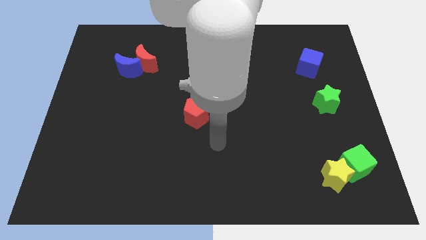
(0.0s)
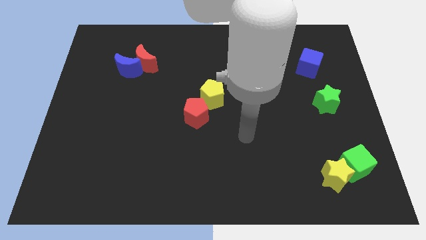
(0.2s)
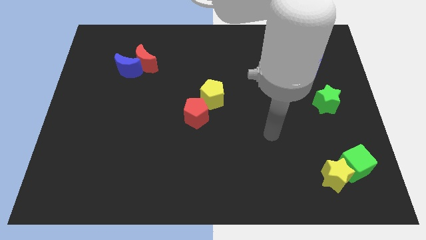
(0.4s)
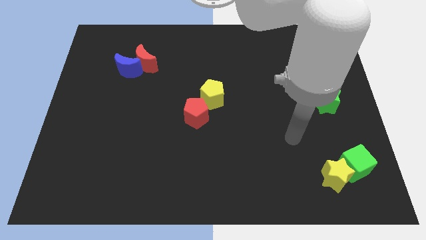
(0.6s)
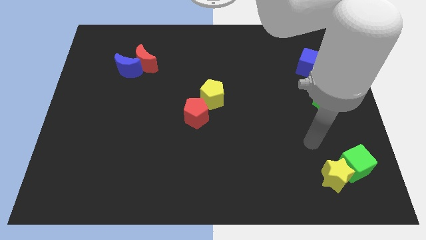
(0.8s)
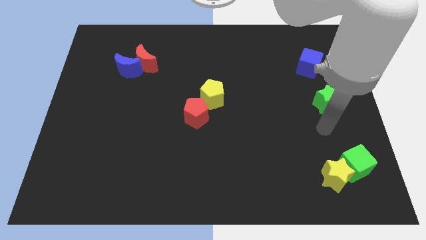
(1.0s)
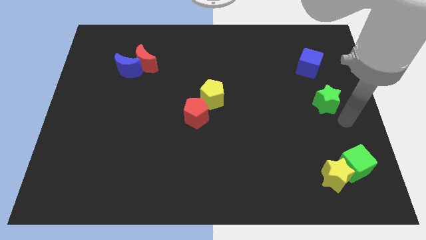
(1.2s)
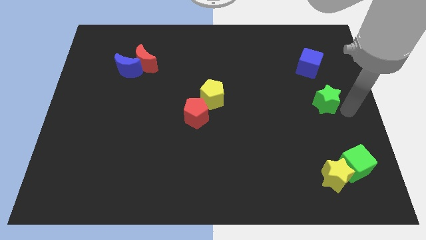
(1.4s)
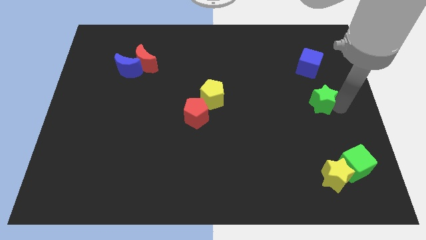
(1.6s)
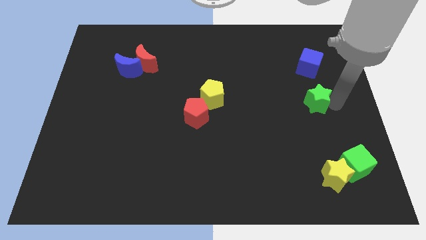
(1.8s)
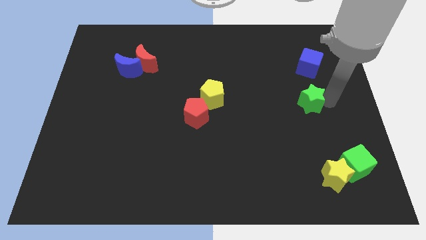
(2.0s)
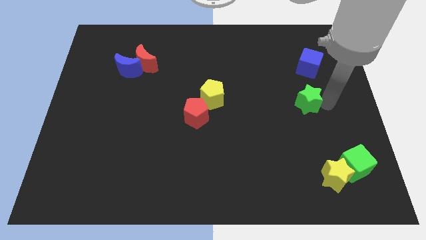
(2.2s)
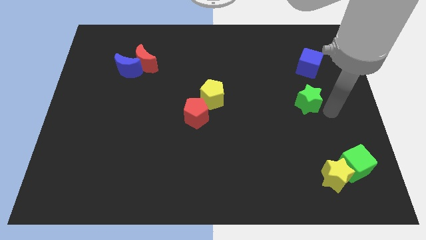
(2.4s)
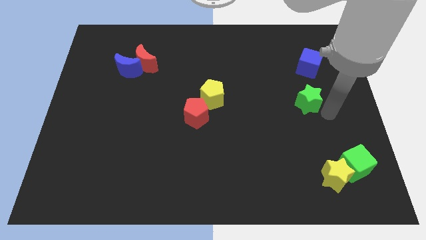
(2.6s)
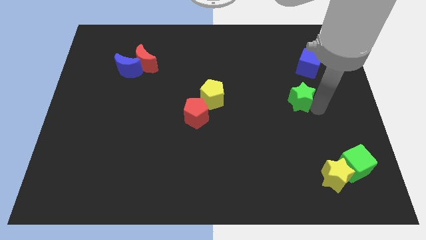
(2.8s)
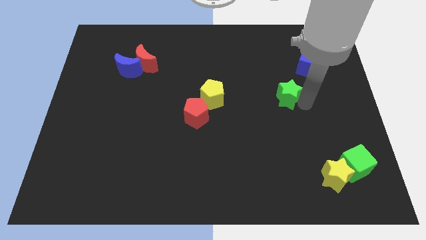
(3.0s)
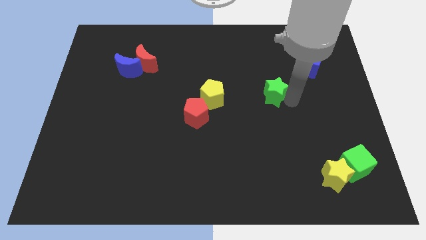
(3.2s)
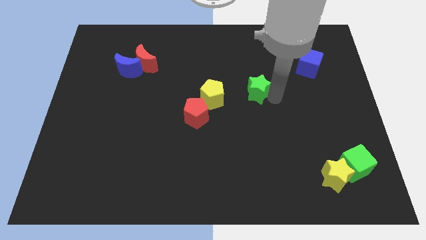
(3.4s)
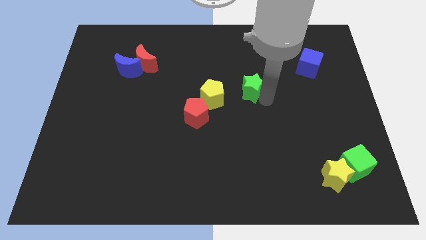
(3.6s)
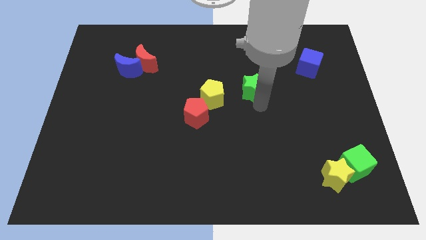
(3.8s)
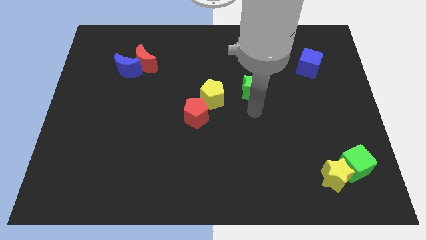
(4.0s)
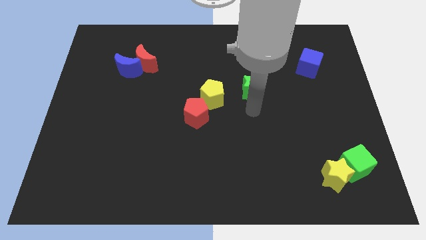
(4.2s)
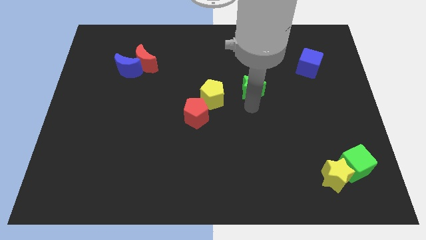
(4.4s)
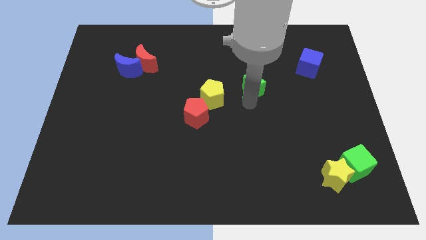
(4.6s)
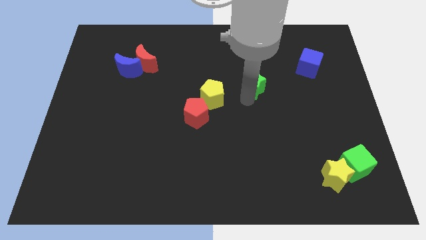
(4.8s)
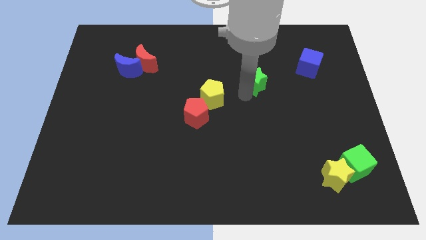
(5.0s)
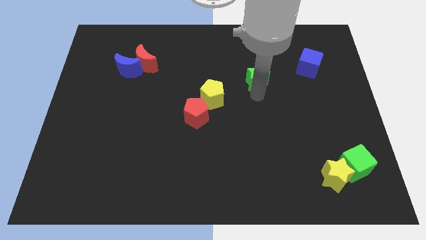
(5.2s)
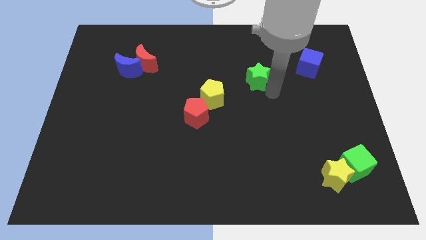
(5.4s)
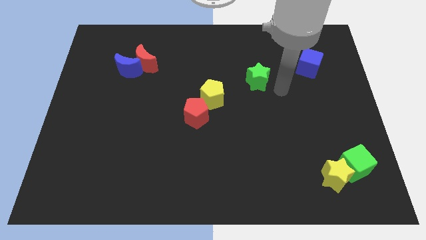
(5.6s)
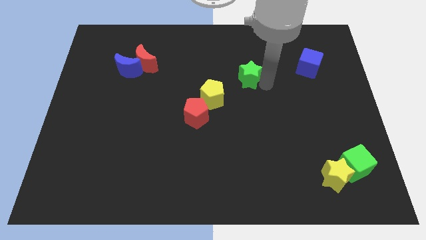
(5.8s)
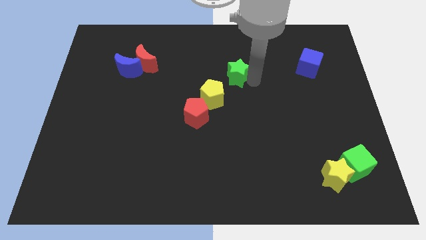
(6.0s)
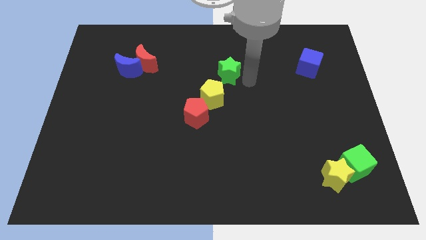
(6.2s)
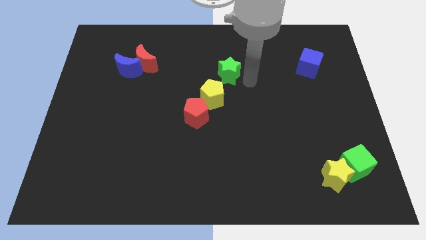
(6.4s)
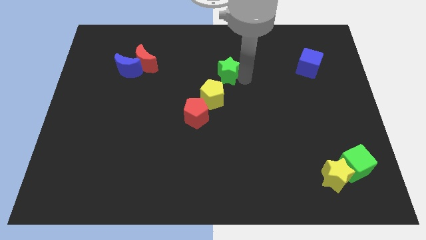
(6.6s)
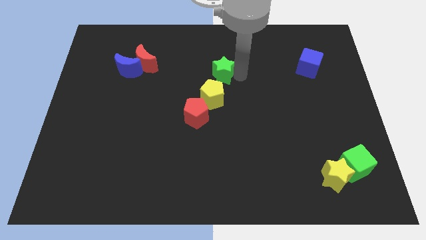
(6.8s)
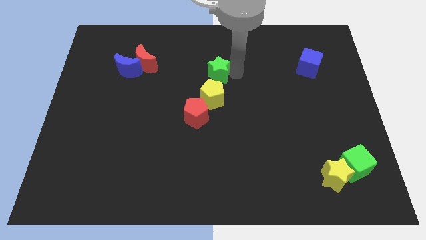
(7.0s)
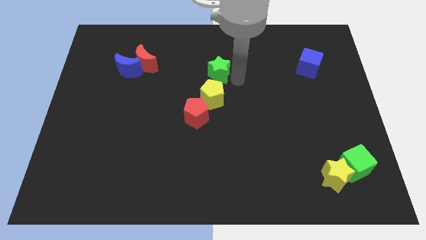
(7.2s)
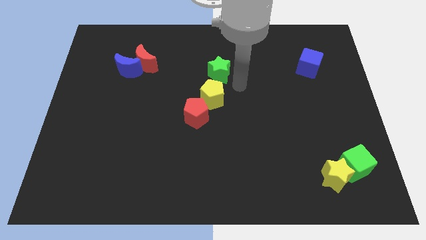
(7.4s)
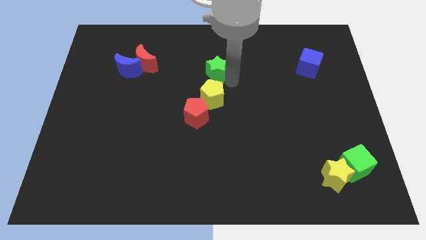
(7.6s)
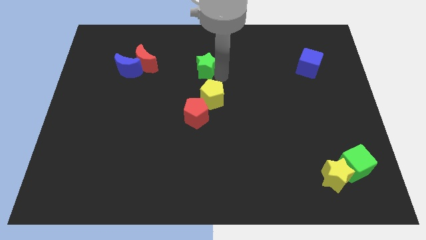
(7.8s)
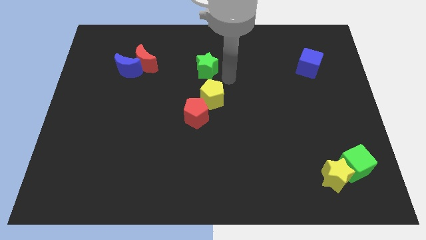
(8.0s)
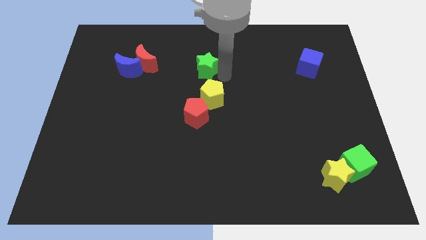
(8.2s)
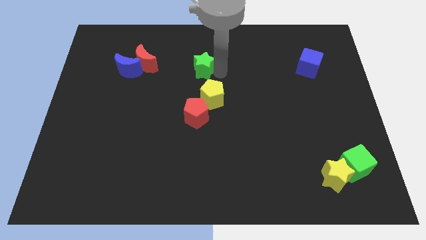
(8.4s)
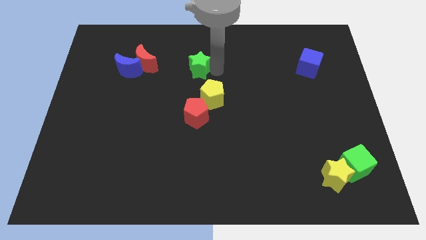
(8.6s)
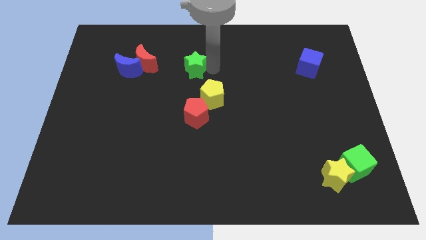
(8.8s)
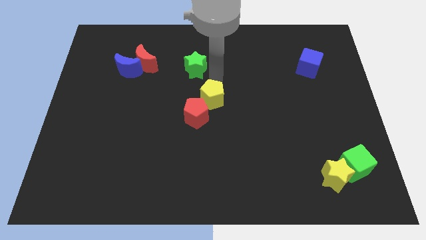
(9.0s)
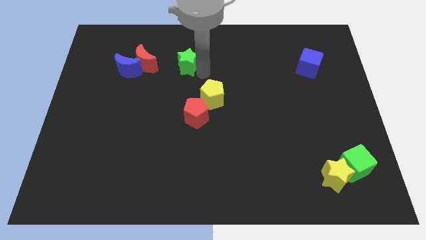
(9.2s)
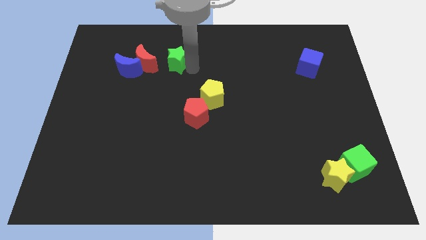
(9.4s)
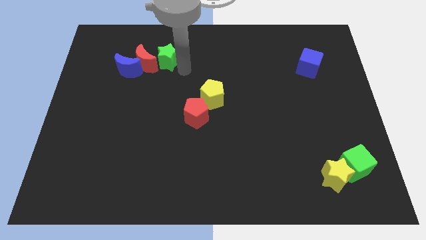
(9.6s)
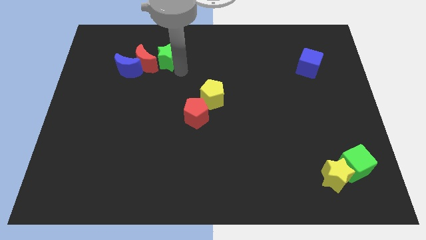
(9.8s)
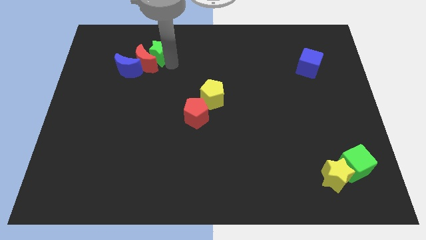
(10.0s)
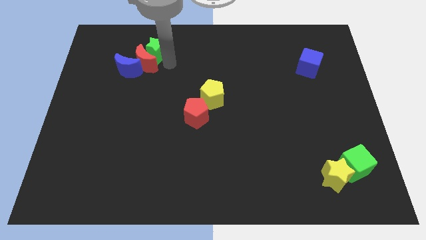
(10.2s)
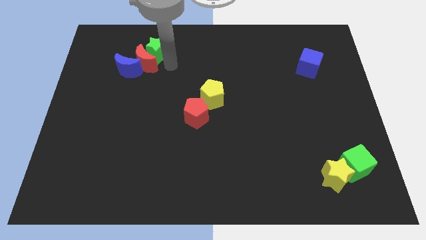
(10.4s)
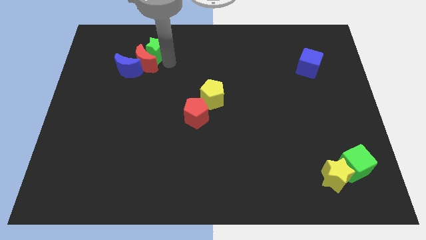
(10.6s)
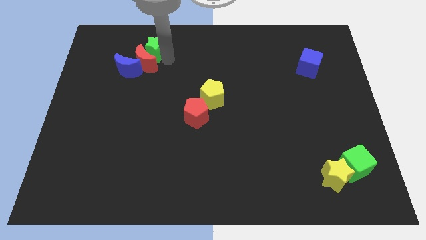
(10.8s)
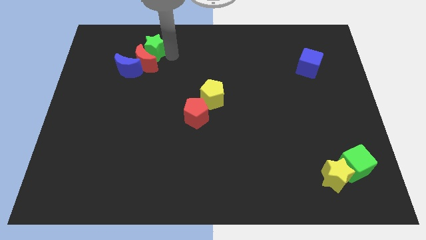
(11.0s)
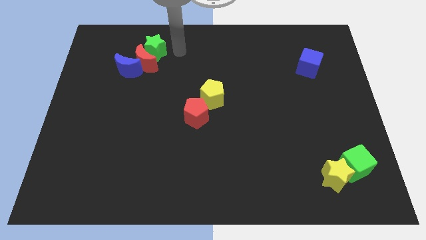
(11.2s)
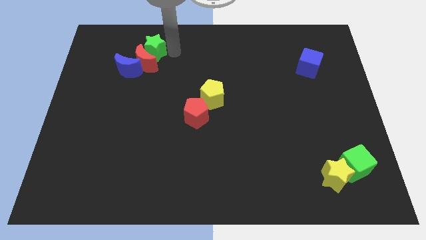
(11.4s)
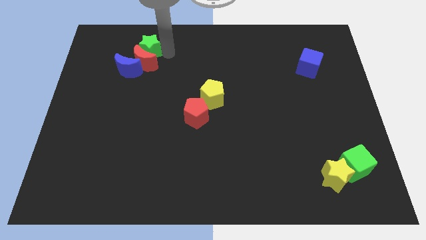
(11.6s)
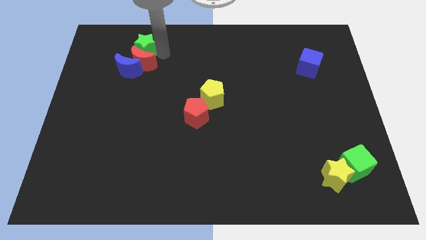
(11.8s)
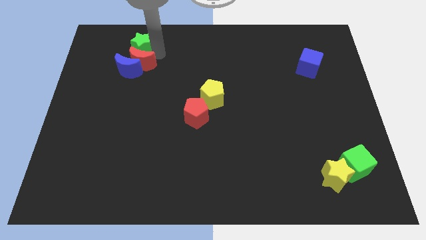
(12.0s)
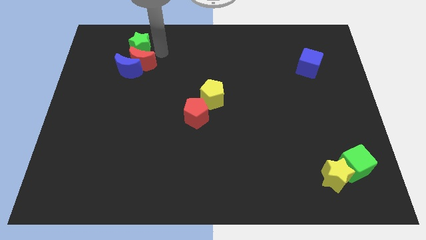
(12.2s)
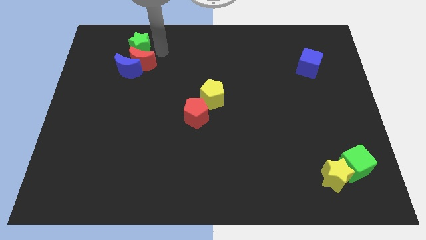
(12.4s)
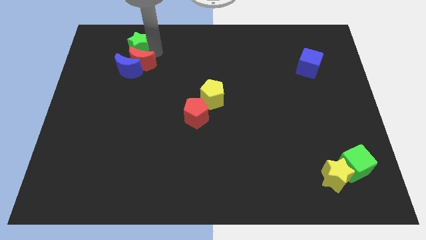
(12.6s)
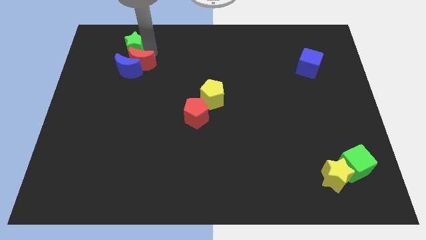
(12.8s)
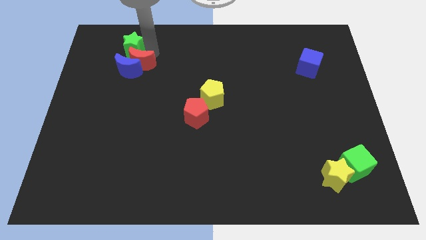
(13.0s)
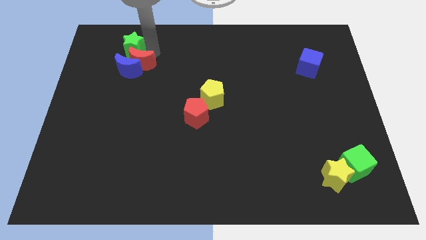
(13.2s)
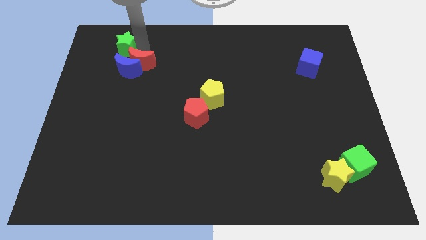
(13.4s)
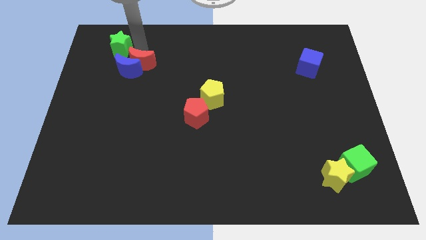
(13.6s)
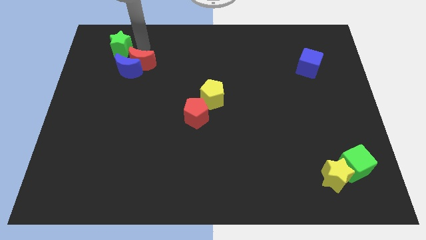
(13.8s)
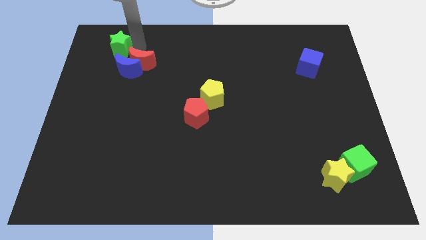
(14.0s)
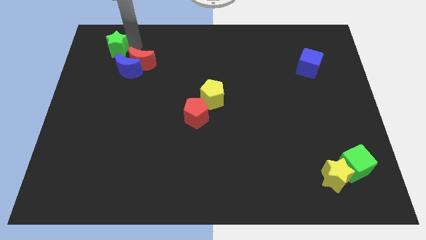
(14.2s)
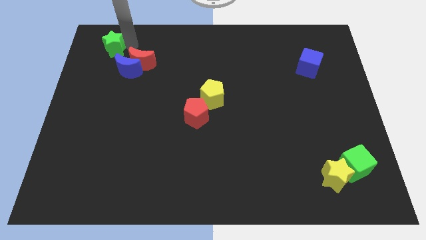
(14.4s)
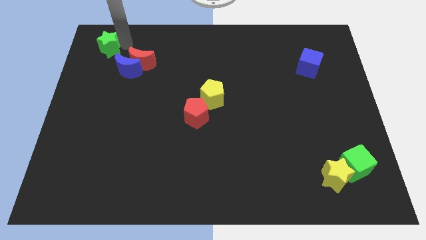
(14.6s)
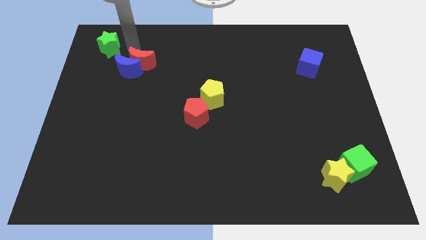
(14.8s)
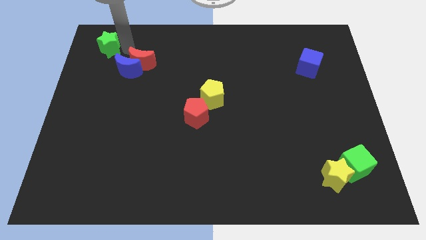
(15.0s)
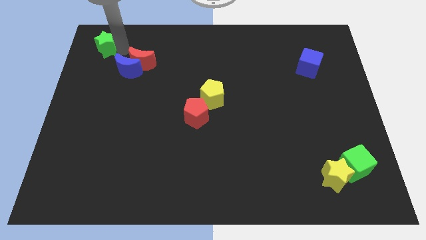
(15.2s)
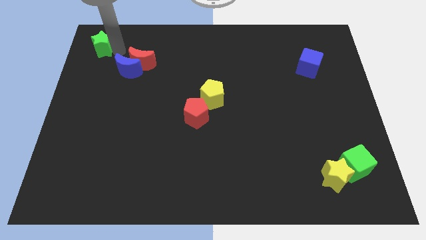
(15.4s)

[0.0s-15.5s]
slide the green star to the top left corner
